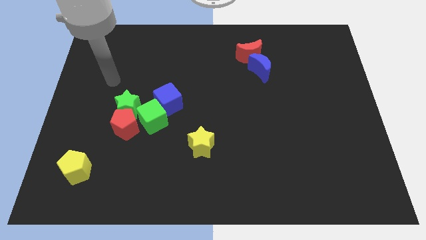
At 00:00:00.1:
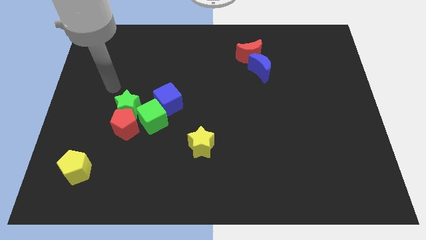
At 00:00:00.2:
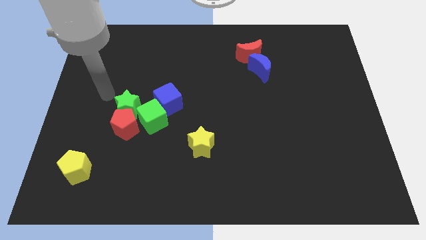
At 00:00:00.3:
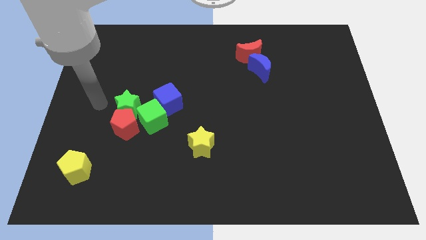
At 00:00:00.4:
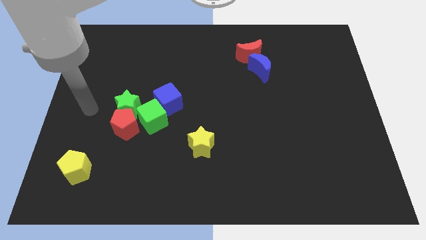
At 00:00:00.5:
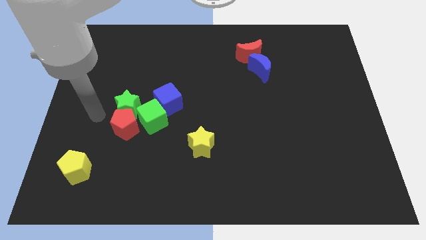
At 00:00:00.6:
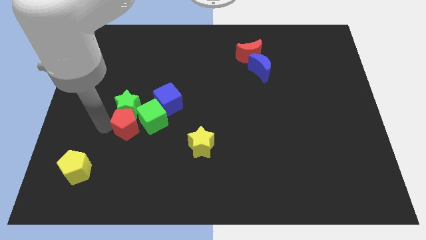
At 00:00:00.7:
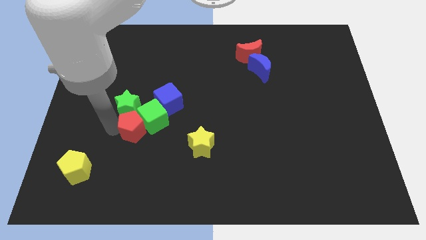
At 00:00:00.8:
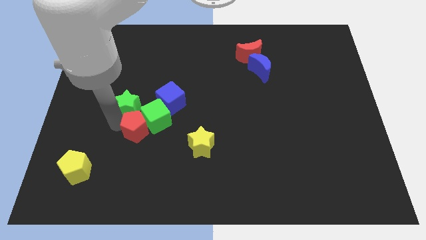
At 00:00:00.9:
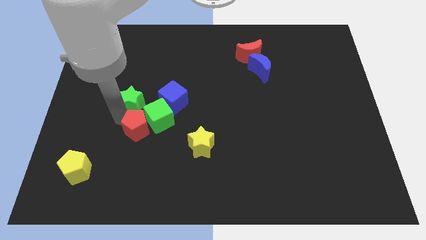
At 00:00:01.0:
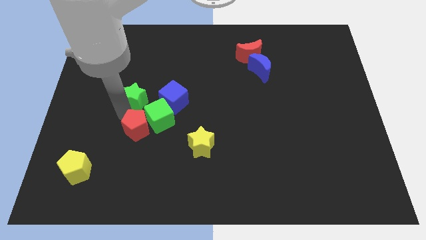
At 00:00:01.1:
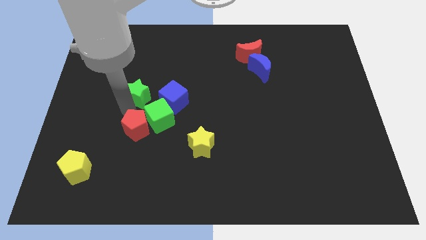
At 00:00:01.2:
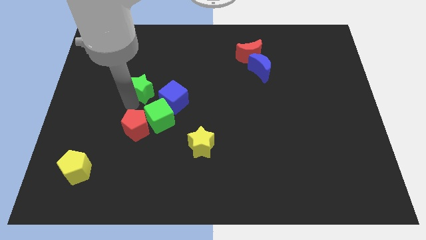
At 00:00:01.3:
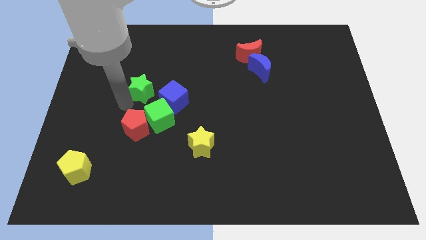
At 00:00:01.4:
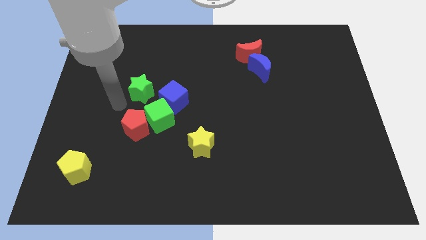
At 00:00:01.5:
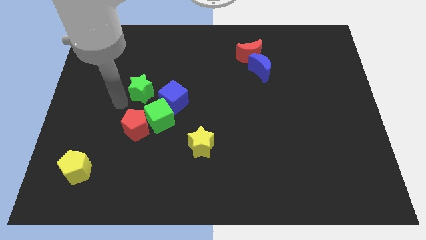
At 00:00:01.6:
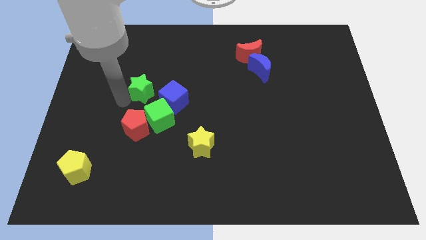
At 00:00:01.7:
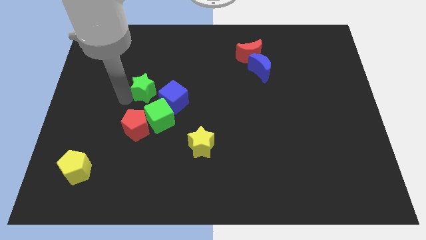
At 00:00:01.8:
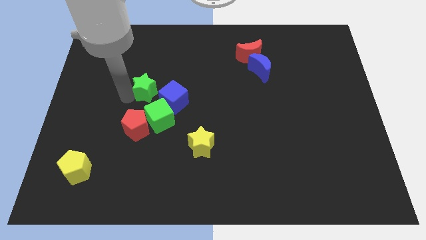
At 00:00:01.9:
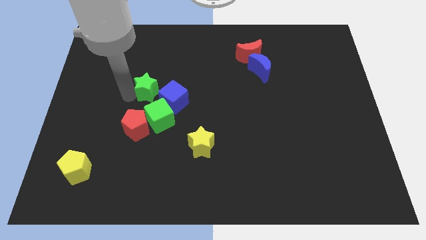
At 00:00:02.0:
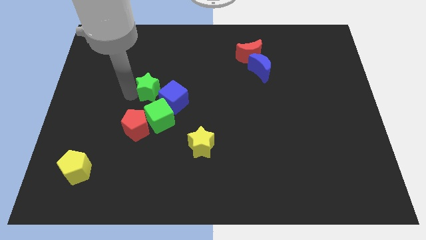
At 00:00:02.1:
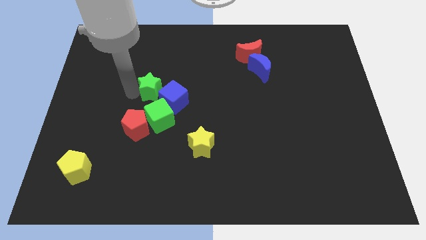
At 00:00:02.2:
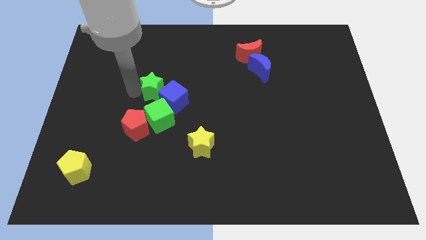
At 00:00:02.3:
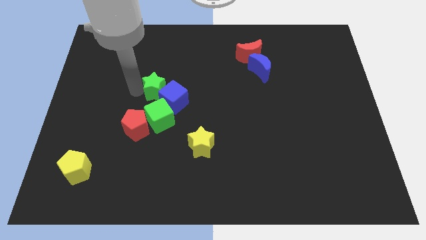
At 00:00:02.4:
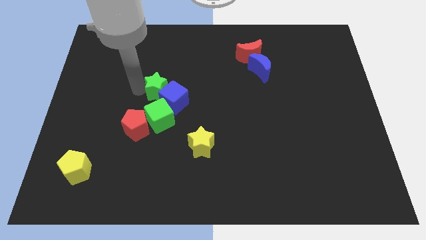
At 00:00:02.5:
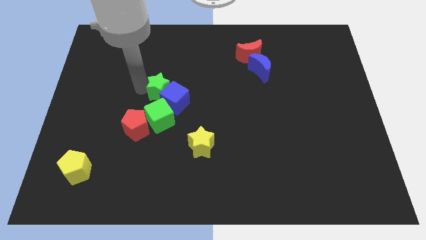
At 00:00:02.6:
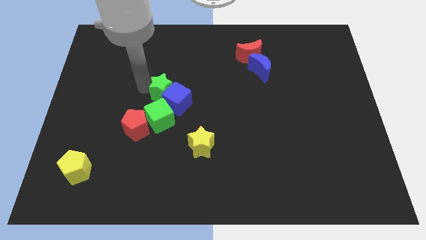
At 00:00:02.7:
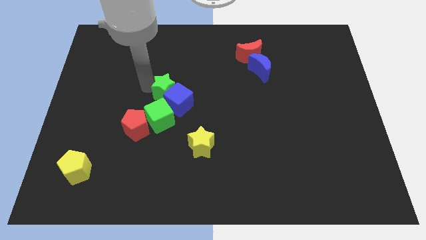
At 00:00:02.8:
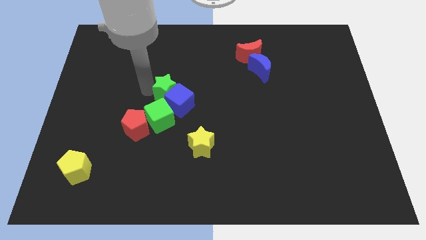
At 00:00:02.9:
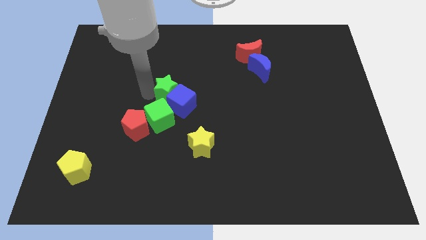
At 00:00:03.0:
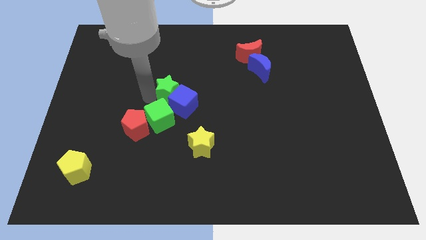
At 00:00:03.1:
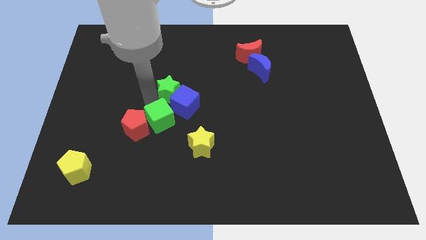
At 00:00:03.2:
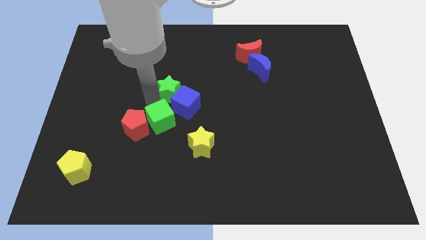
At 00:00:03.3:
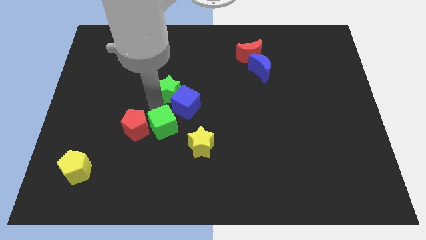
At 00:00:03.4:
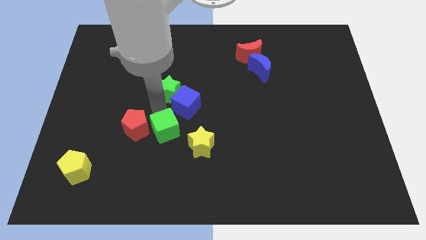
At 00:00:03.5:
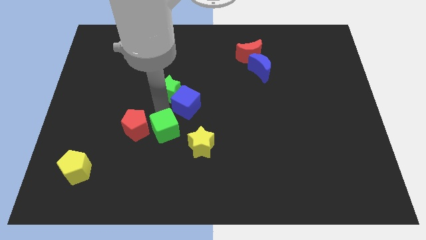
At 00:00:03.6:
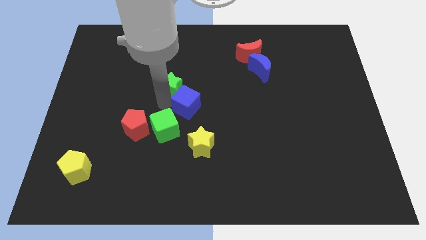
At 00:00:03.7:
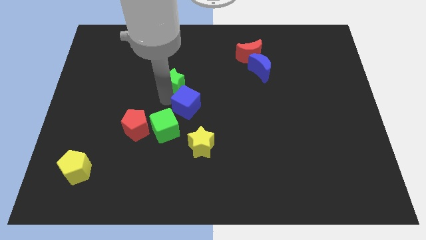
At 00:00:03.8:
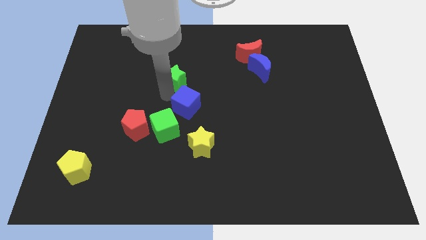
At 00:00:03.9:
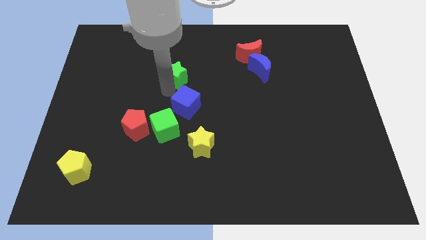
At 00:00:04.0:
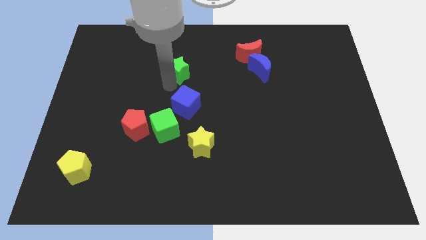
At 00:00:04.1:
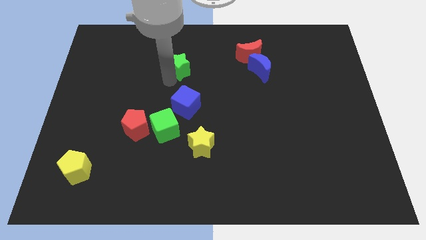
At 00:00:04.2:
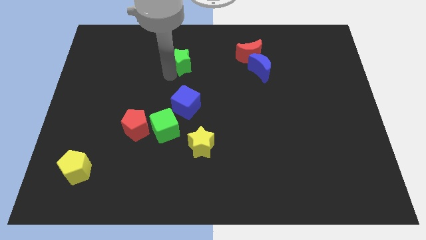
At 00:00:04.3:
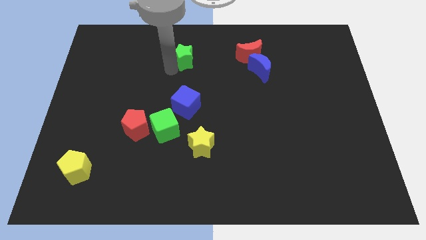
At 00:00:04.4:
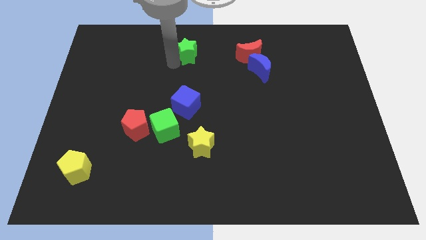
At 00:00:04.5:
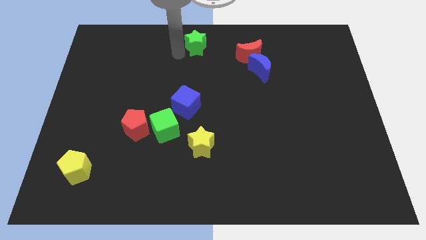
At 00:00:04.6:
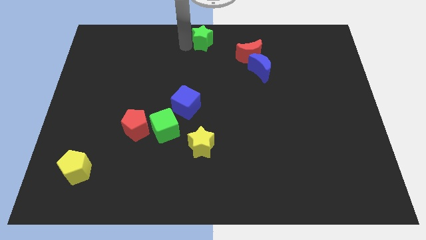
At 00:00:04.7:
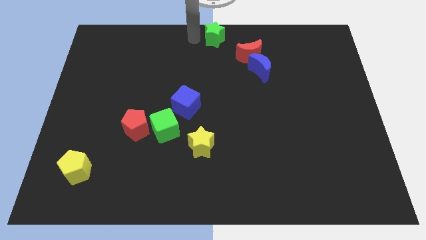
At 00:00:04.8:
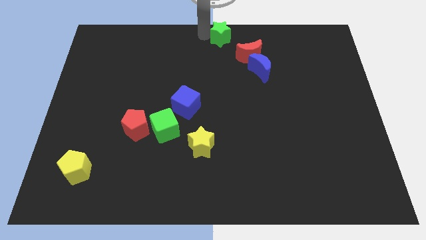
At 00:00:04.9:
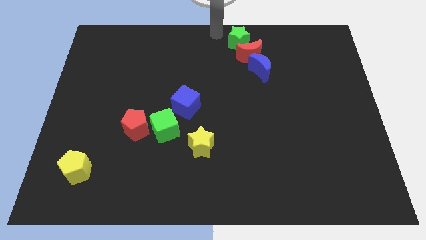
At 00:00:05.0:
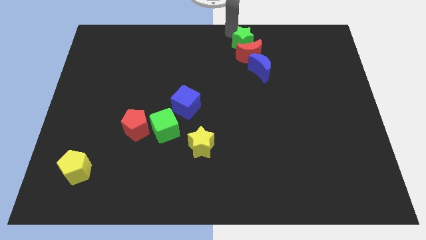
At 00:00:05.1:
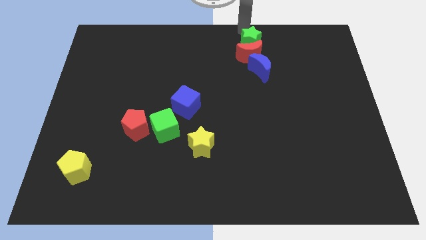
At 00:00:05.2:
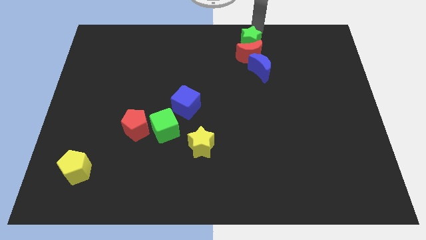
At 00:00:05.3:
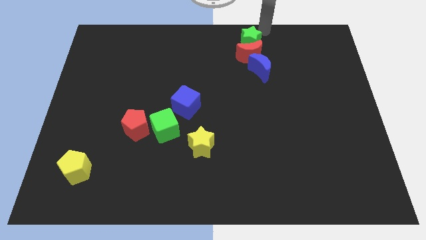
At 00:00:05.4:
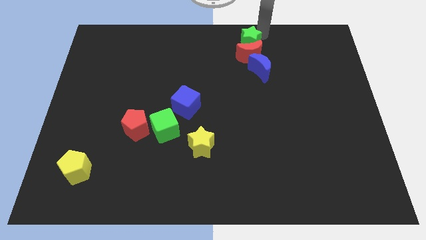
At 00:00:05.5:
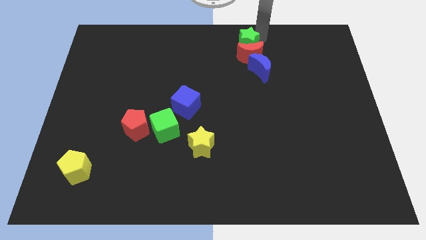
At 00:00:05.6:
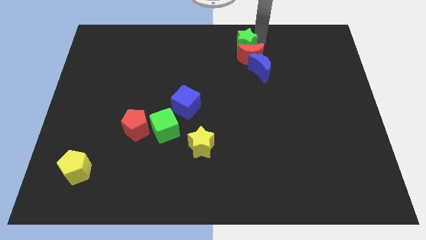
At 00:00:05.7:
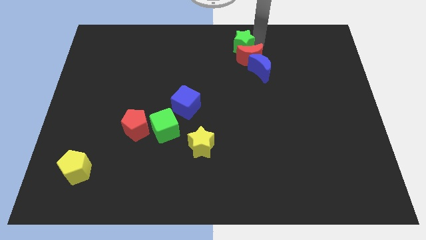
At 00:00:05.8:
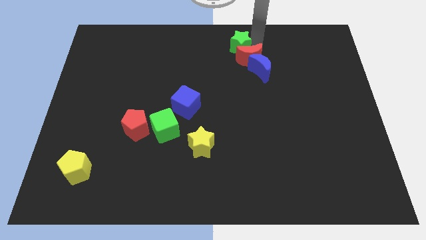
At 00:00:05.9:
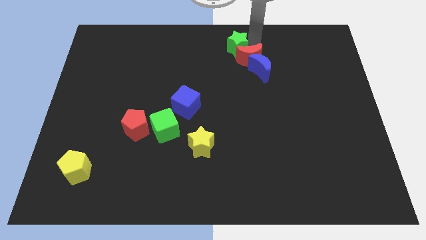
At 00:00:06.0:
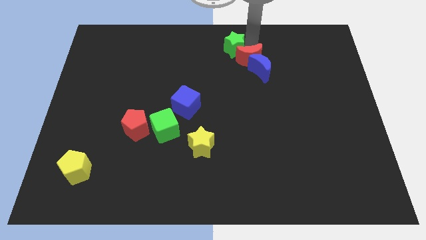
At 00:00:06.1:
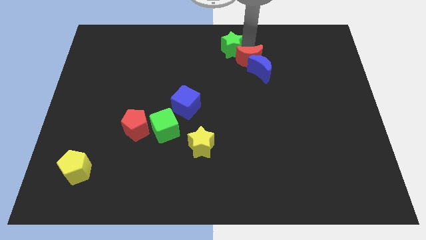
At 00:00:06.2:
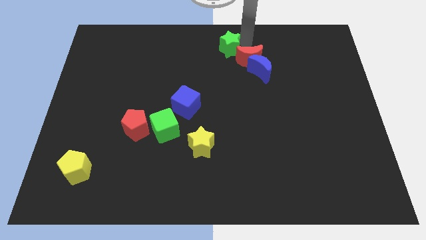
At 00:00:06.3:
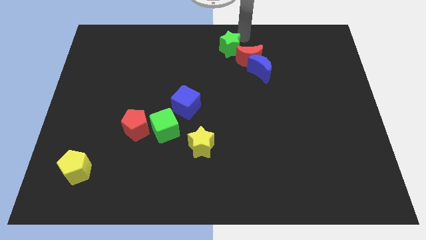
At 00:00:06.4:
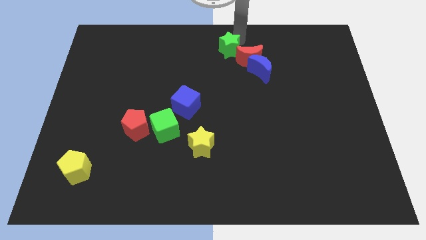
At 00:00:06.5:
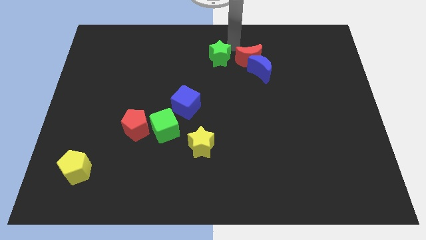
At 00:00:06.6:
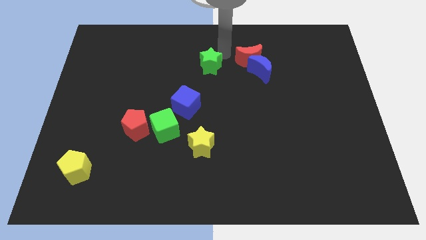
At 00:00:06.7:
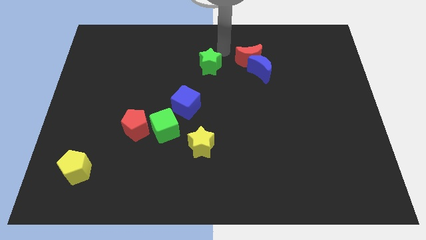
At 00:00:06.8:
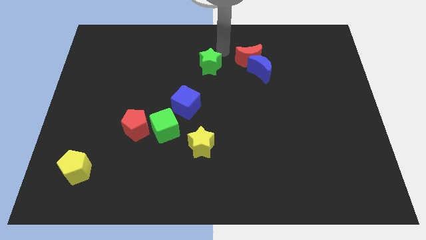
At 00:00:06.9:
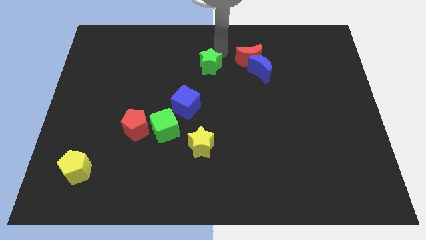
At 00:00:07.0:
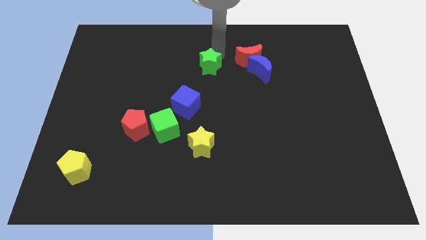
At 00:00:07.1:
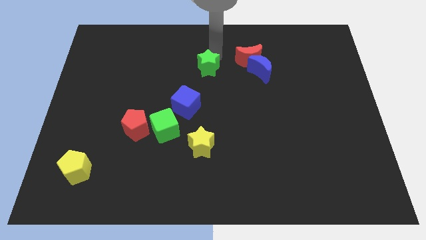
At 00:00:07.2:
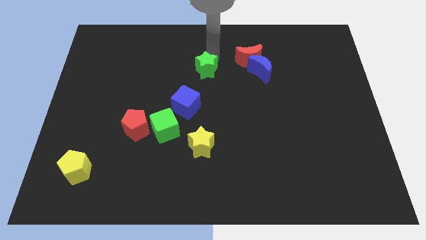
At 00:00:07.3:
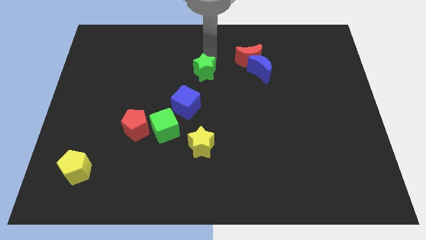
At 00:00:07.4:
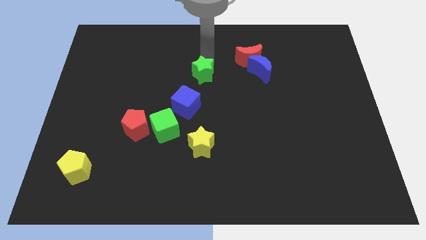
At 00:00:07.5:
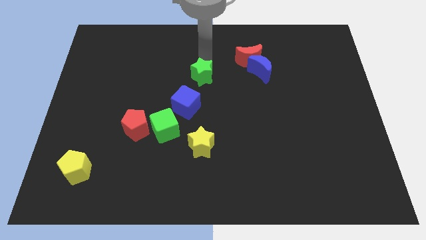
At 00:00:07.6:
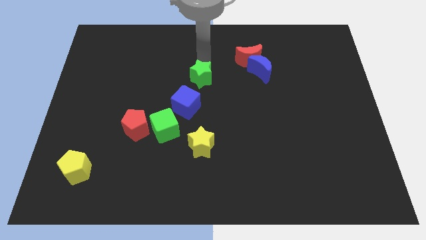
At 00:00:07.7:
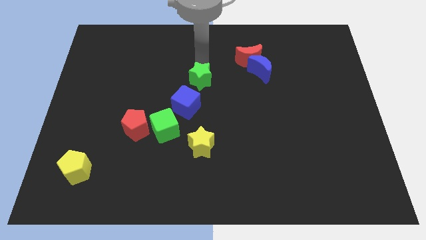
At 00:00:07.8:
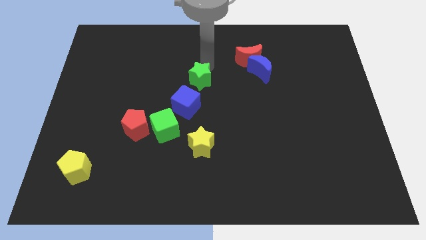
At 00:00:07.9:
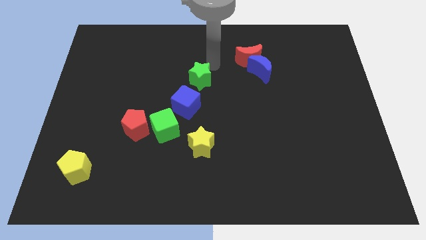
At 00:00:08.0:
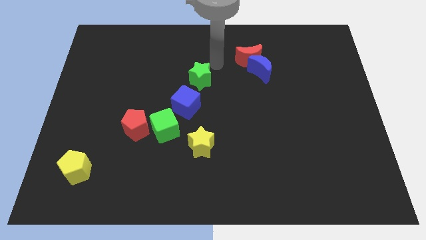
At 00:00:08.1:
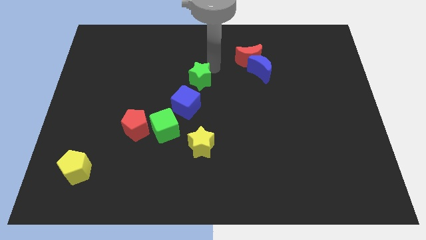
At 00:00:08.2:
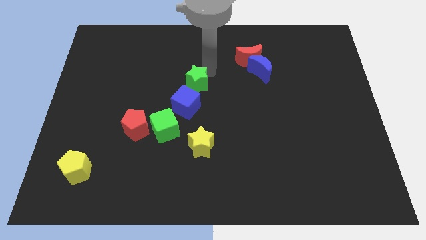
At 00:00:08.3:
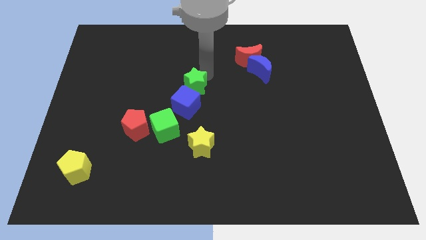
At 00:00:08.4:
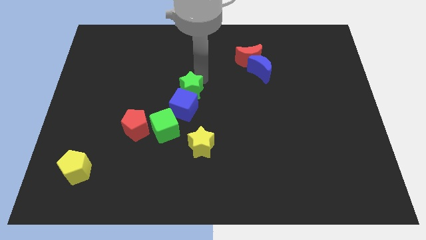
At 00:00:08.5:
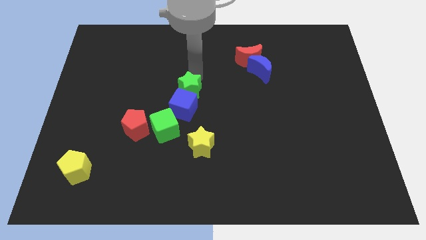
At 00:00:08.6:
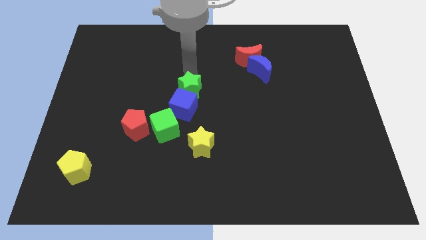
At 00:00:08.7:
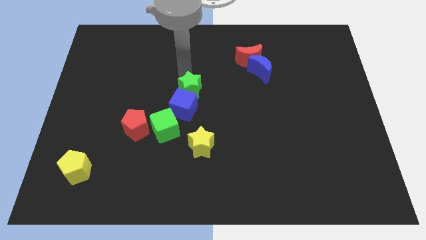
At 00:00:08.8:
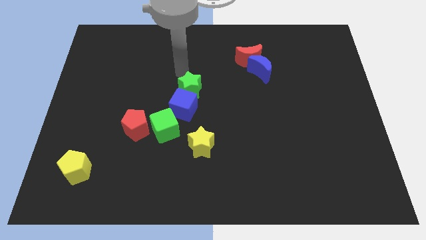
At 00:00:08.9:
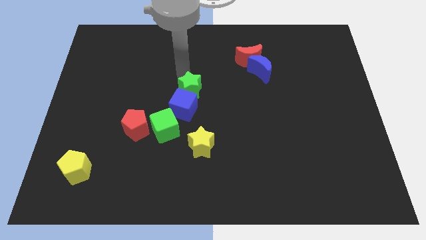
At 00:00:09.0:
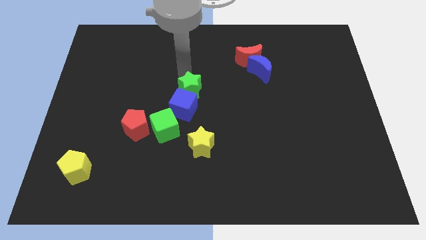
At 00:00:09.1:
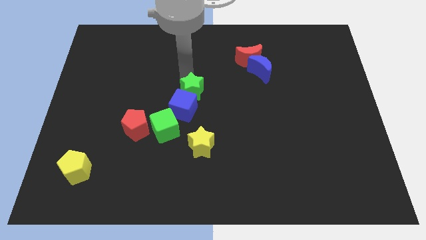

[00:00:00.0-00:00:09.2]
push the green star above the yellow star
